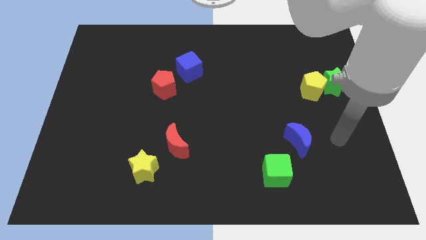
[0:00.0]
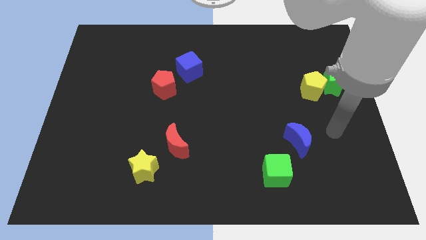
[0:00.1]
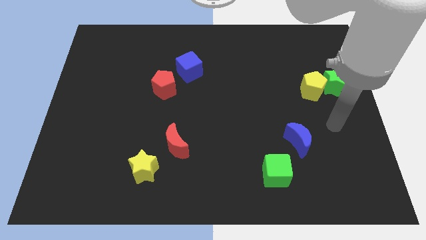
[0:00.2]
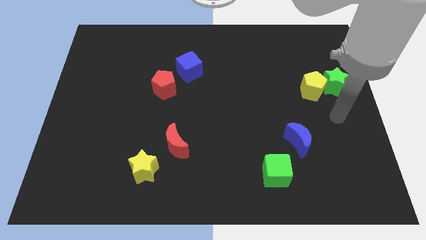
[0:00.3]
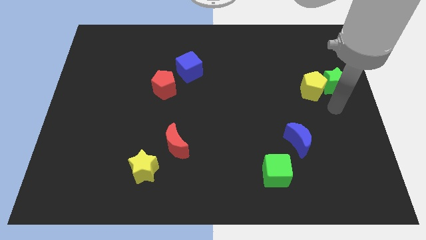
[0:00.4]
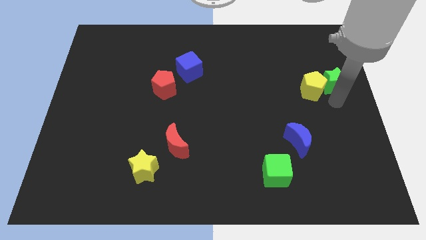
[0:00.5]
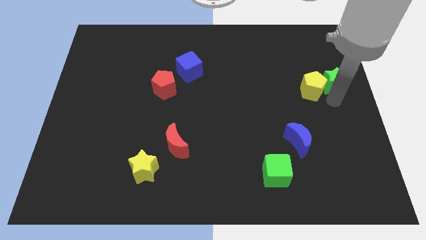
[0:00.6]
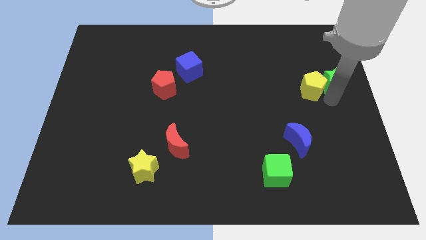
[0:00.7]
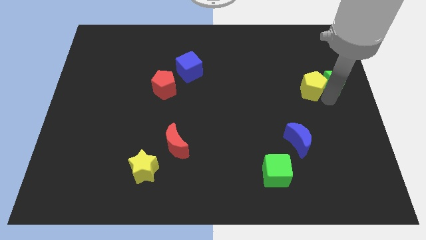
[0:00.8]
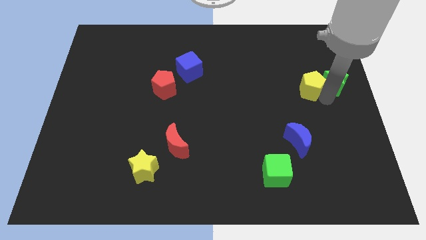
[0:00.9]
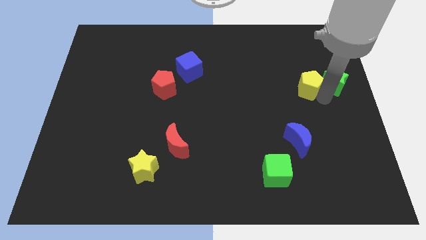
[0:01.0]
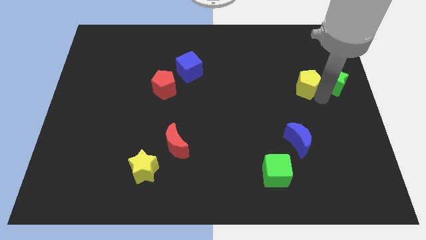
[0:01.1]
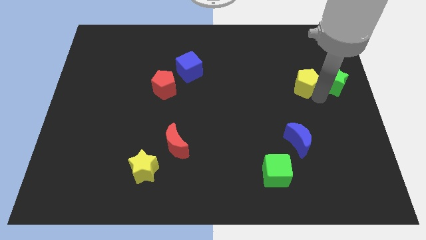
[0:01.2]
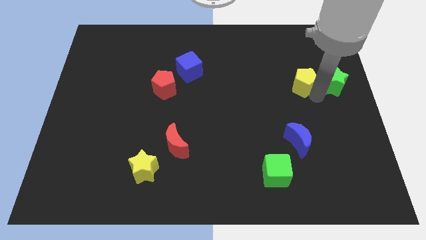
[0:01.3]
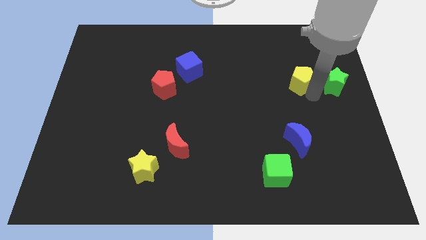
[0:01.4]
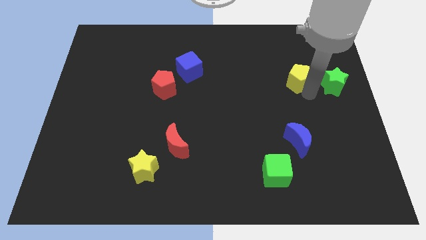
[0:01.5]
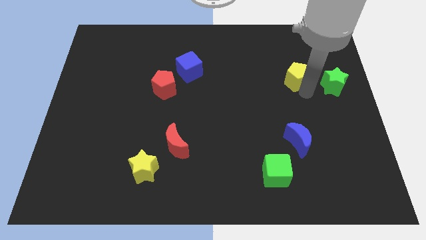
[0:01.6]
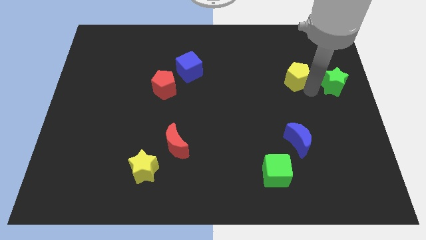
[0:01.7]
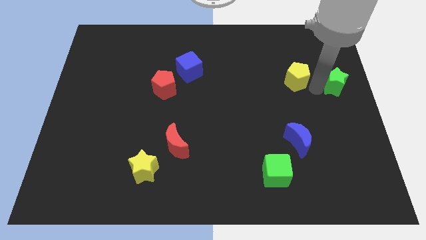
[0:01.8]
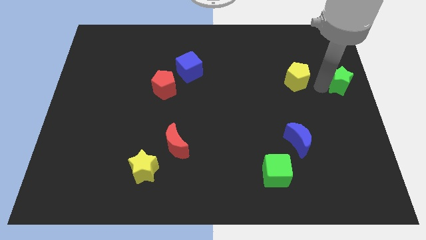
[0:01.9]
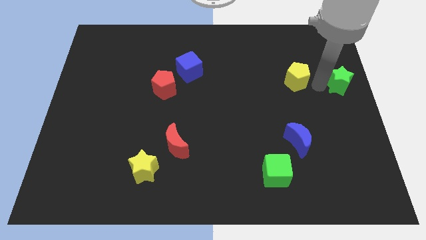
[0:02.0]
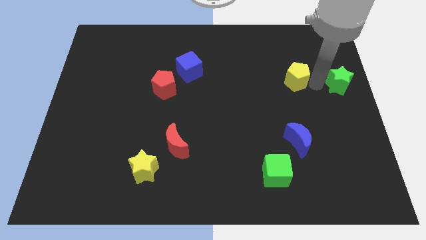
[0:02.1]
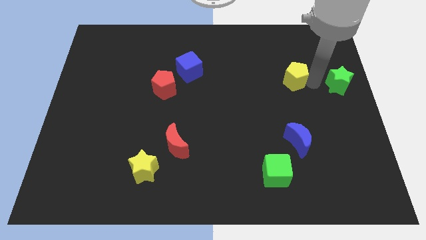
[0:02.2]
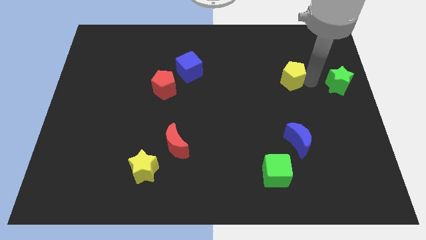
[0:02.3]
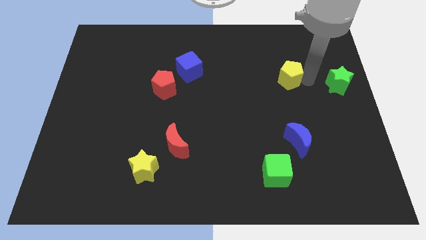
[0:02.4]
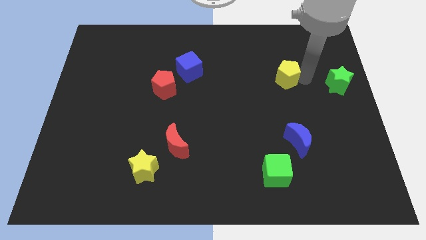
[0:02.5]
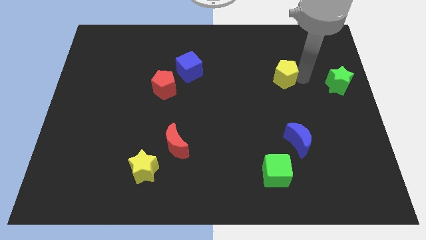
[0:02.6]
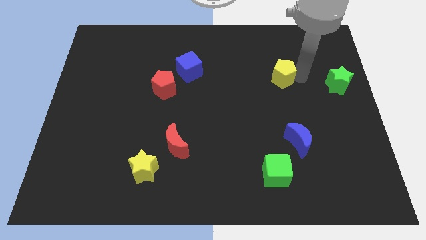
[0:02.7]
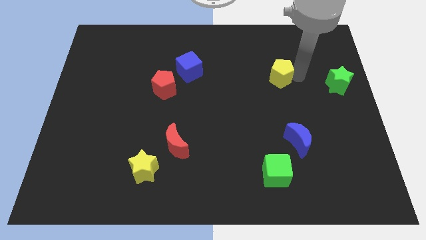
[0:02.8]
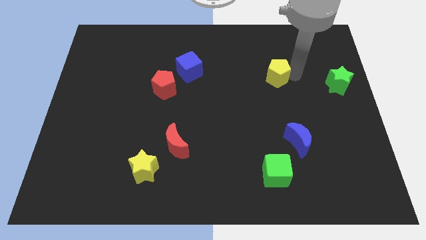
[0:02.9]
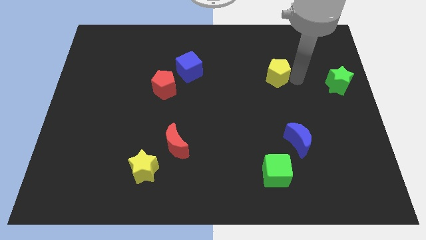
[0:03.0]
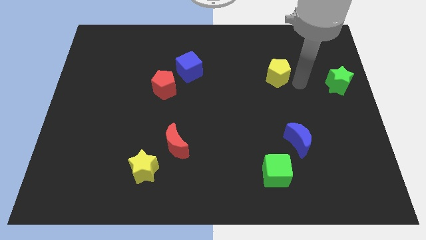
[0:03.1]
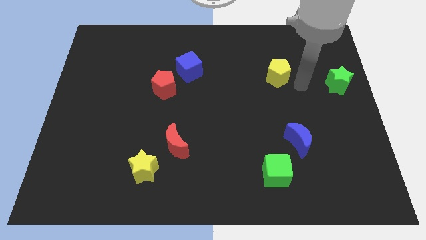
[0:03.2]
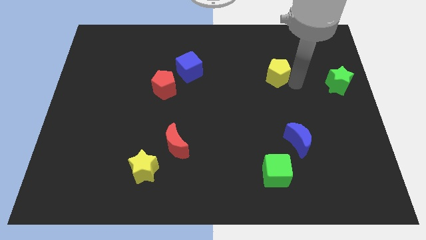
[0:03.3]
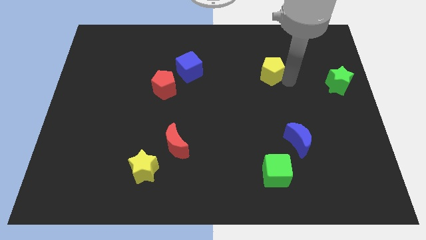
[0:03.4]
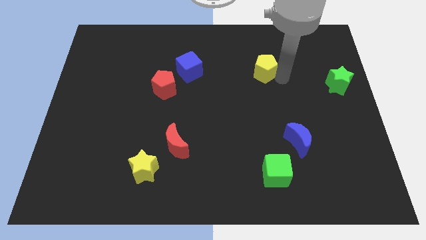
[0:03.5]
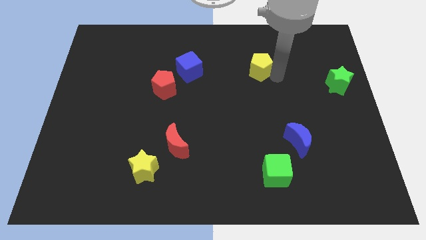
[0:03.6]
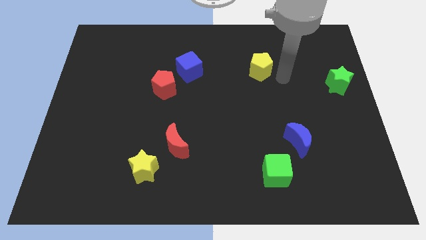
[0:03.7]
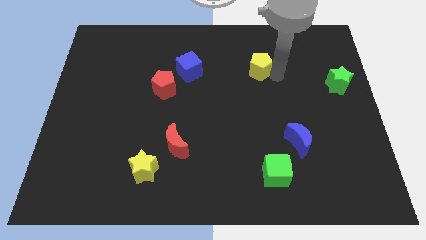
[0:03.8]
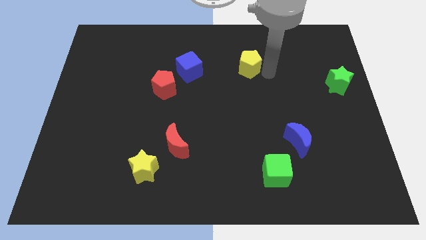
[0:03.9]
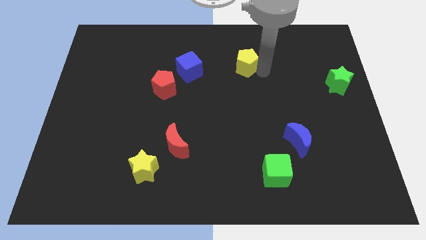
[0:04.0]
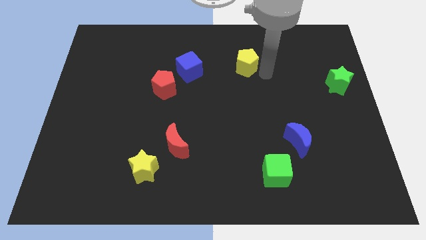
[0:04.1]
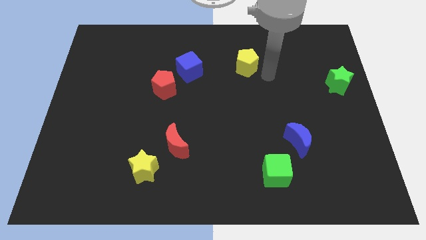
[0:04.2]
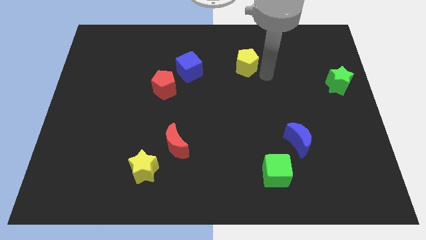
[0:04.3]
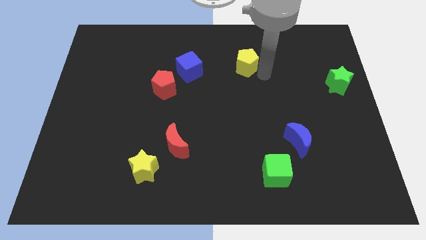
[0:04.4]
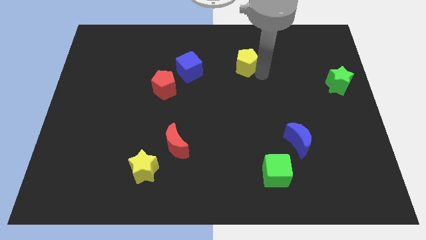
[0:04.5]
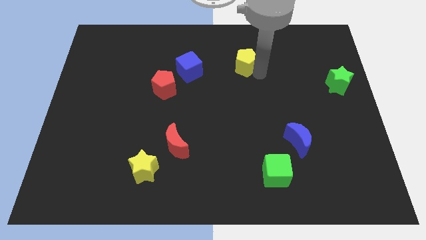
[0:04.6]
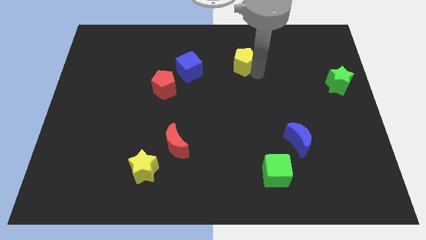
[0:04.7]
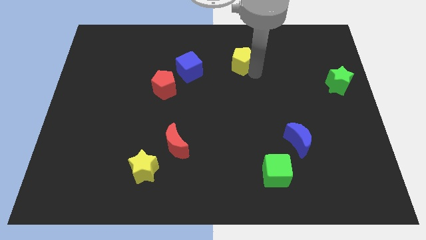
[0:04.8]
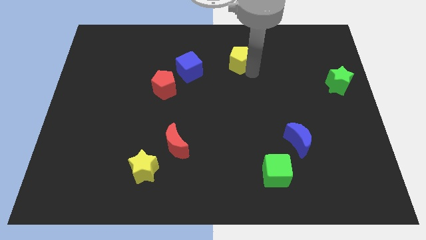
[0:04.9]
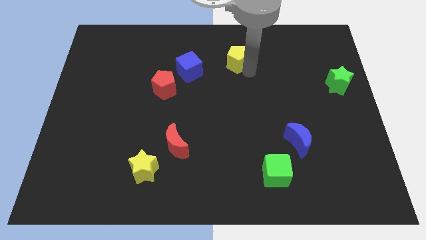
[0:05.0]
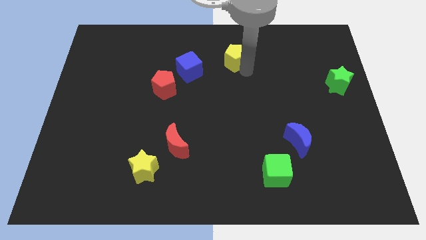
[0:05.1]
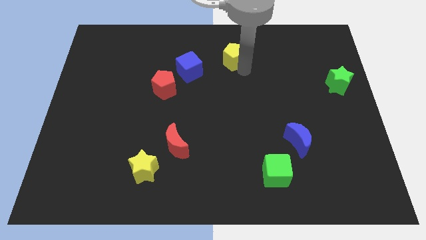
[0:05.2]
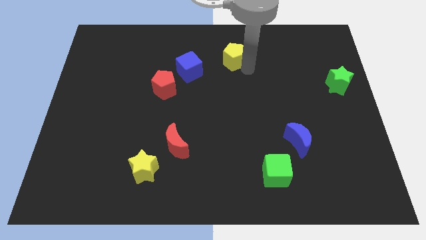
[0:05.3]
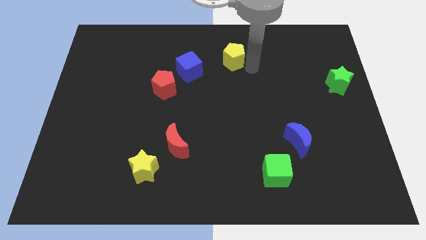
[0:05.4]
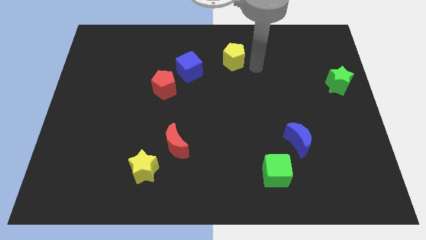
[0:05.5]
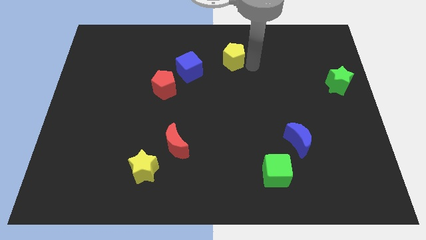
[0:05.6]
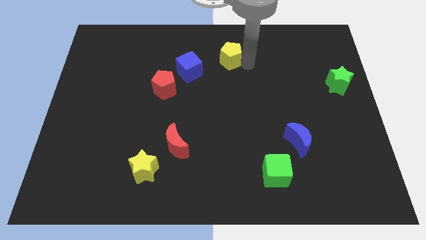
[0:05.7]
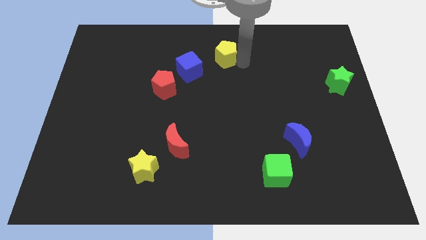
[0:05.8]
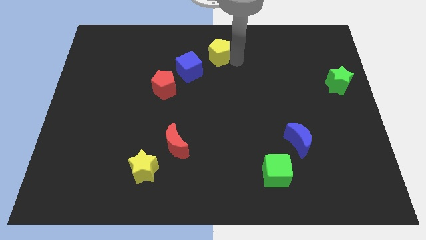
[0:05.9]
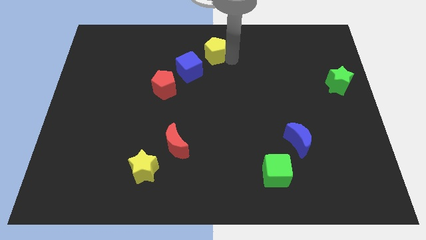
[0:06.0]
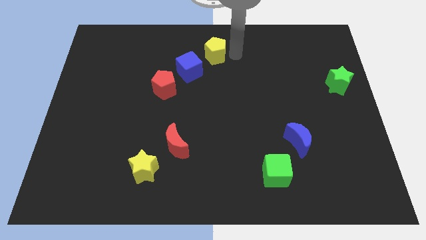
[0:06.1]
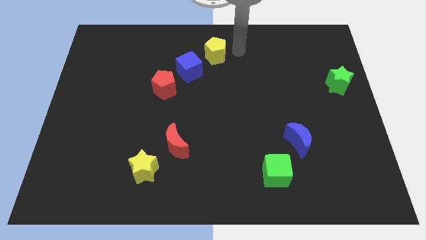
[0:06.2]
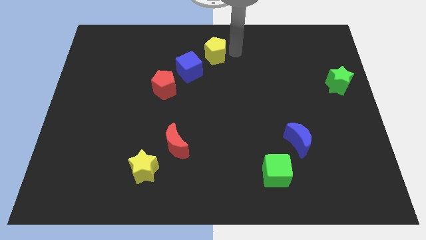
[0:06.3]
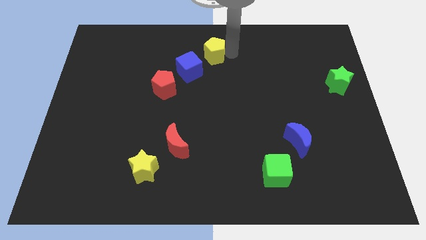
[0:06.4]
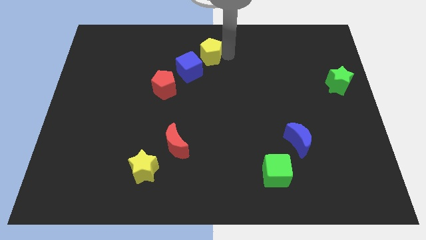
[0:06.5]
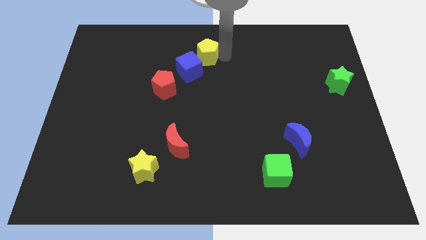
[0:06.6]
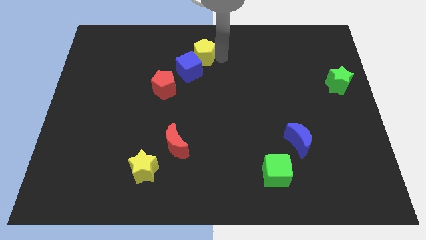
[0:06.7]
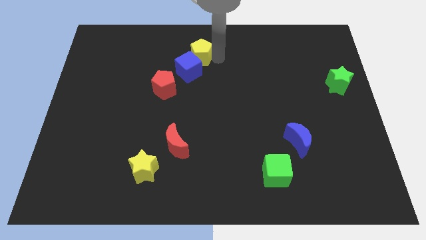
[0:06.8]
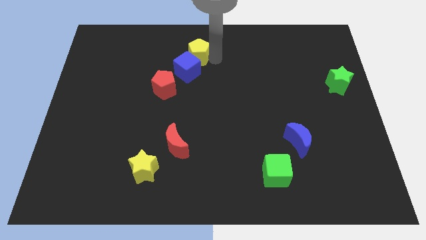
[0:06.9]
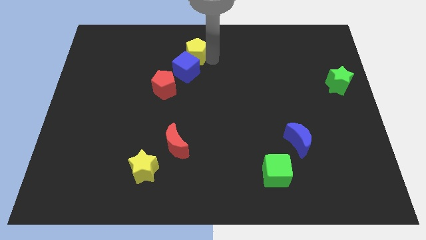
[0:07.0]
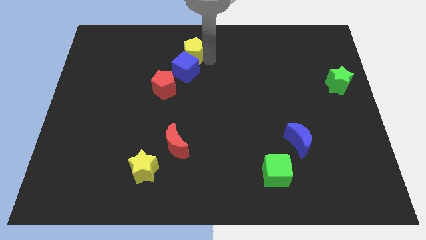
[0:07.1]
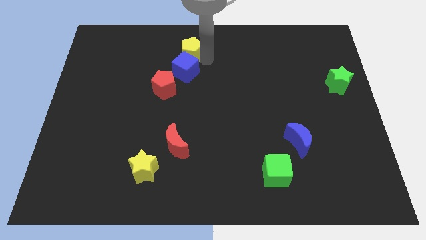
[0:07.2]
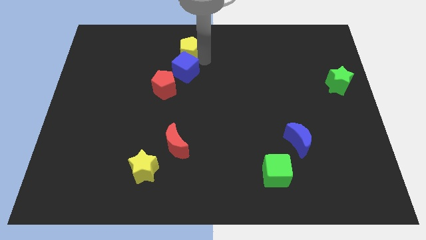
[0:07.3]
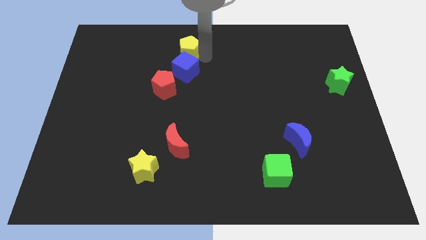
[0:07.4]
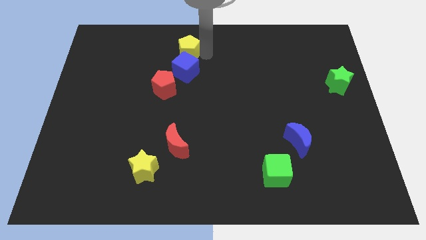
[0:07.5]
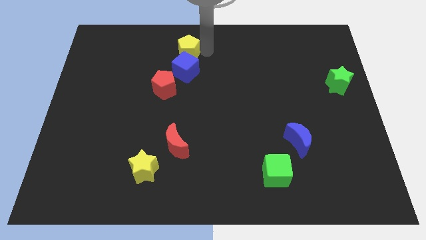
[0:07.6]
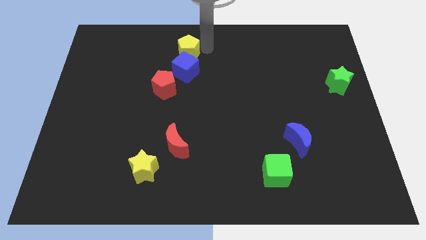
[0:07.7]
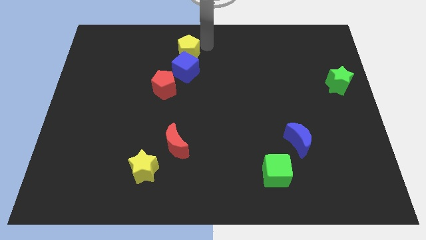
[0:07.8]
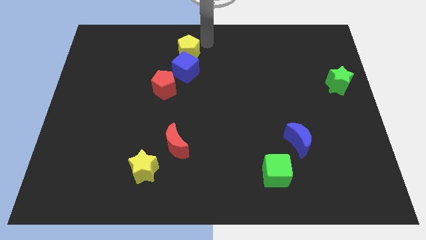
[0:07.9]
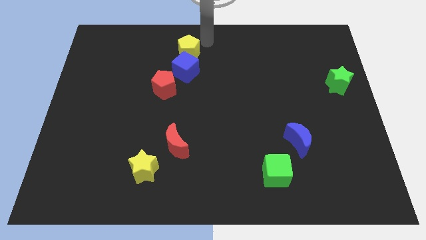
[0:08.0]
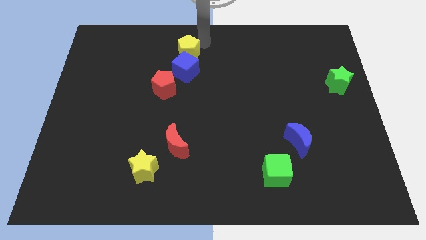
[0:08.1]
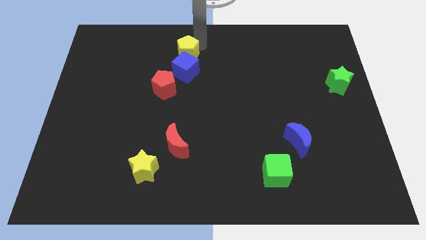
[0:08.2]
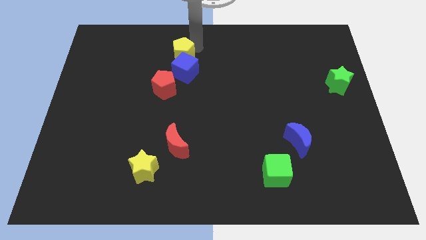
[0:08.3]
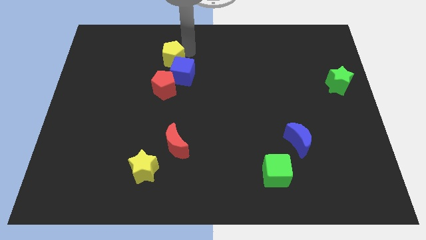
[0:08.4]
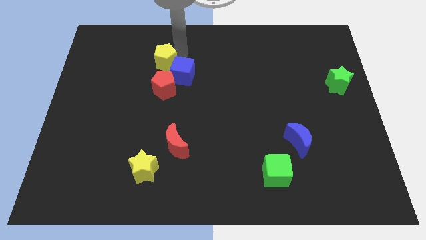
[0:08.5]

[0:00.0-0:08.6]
move the yellow pentagon to the left of the blue cube
